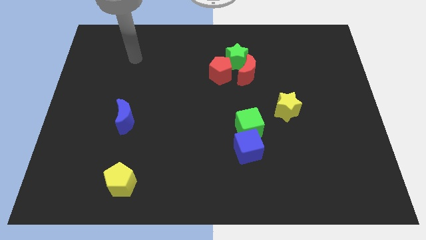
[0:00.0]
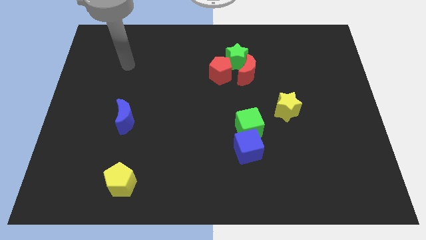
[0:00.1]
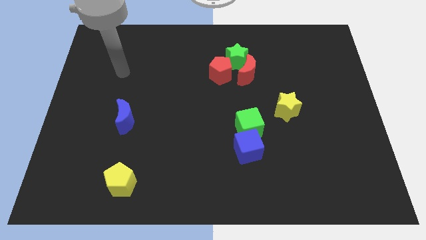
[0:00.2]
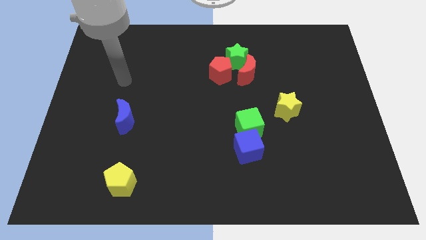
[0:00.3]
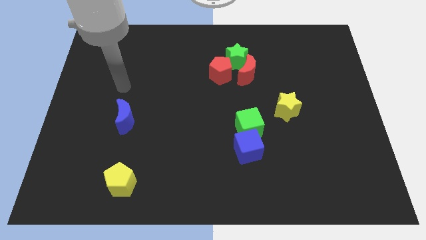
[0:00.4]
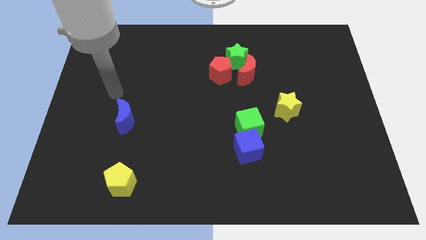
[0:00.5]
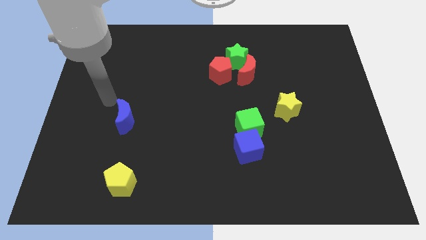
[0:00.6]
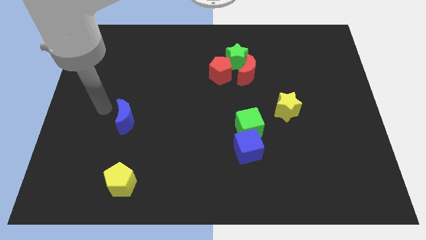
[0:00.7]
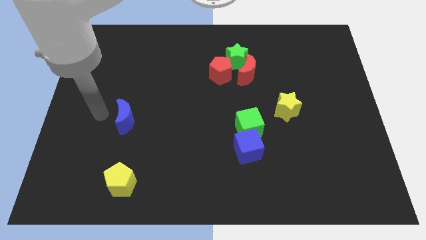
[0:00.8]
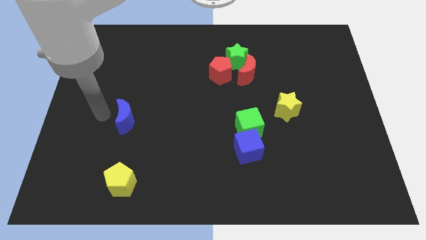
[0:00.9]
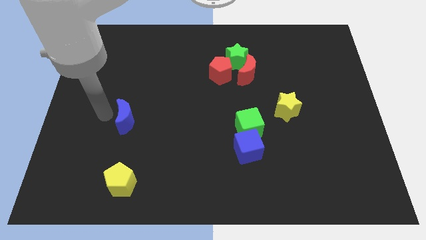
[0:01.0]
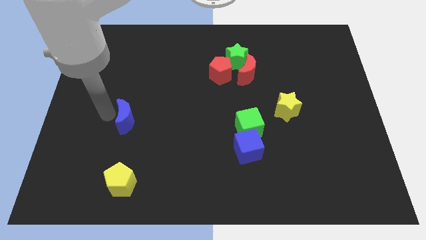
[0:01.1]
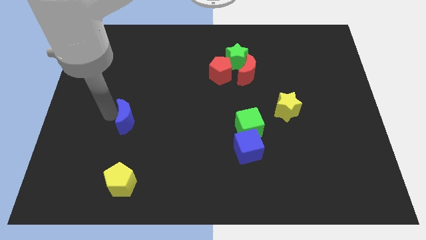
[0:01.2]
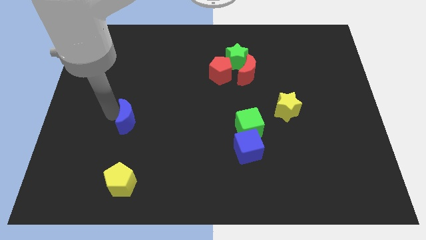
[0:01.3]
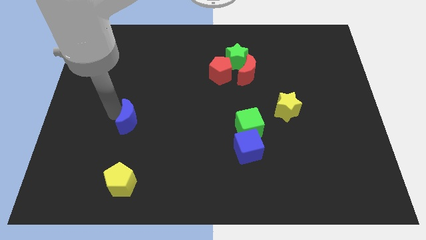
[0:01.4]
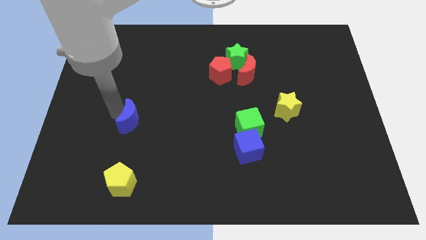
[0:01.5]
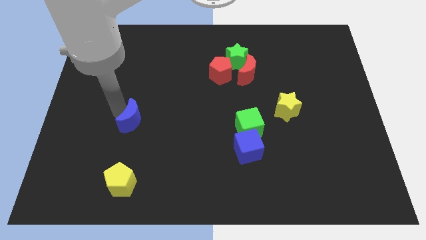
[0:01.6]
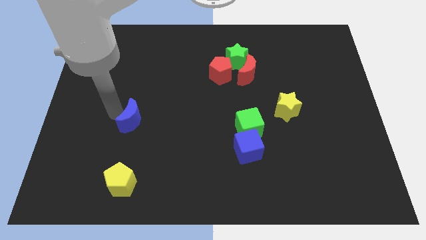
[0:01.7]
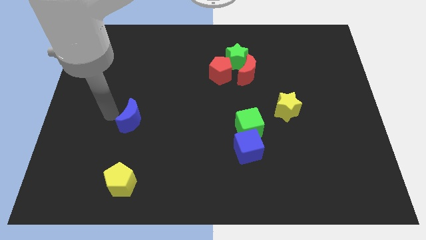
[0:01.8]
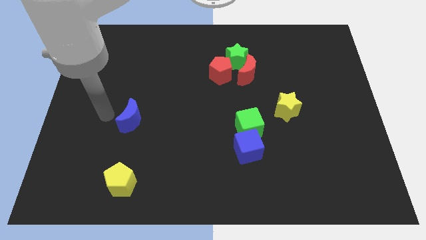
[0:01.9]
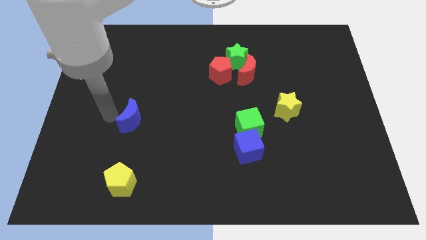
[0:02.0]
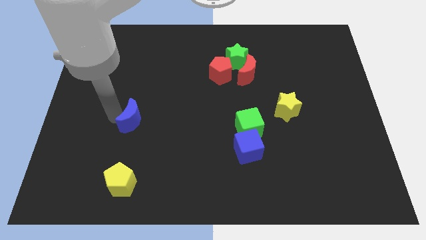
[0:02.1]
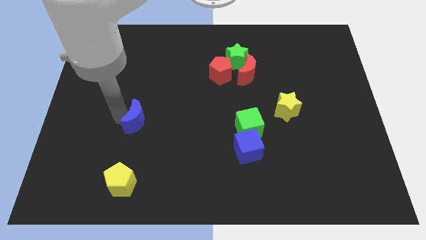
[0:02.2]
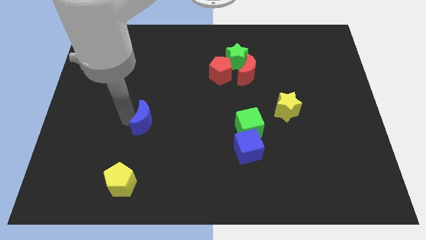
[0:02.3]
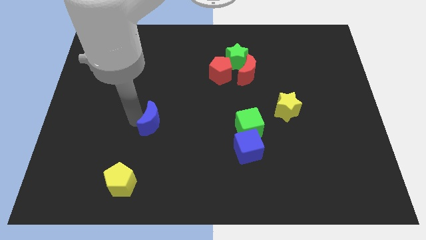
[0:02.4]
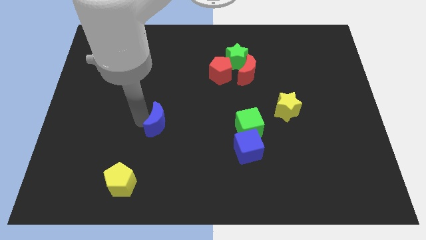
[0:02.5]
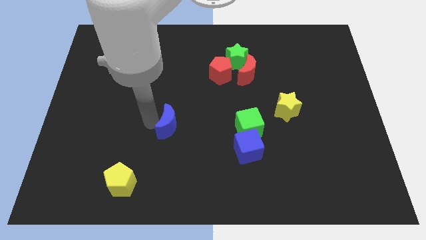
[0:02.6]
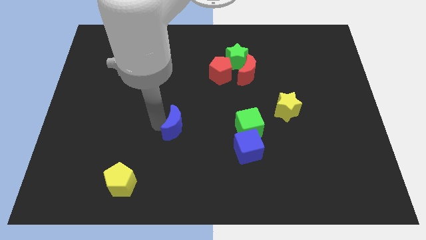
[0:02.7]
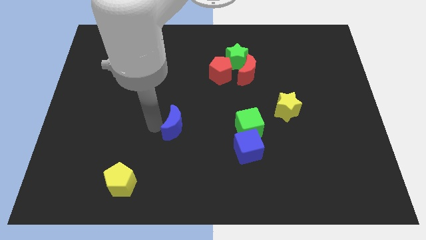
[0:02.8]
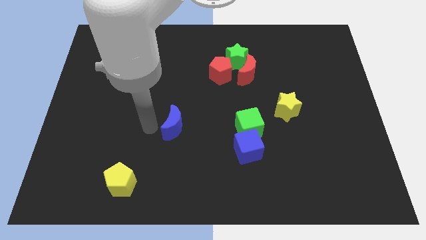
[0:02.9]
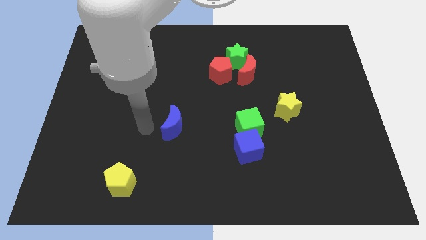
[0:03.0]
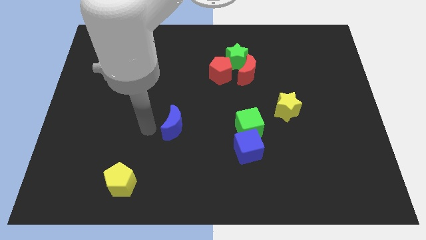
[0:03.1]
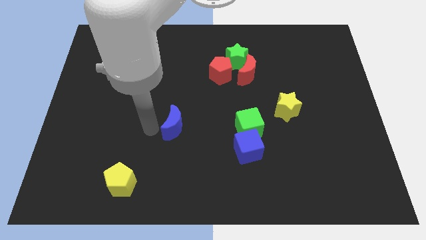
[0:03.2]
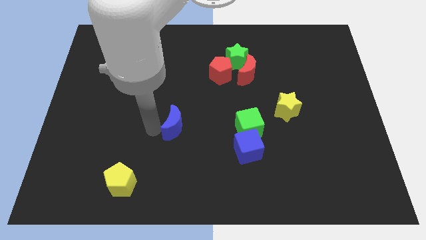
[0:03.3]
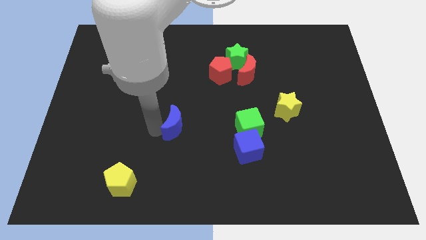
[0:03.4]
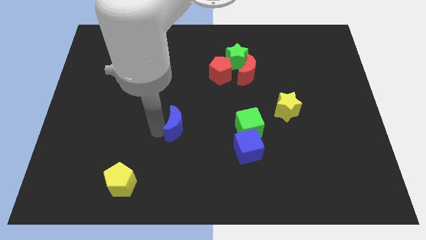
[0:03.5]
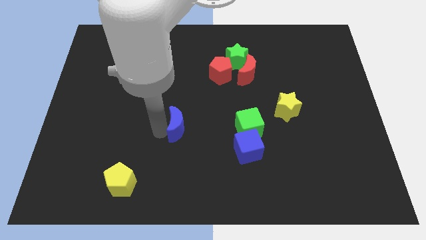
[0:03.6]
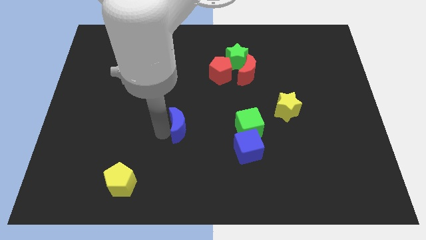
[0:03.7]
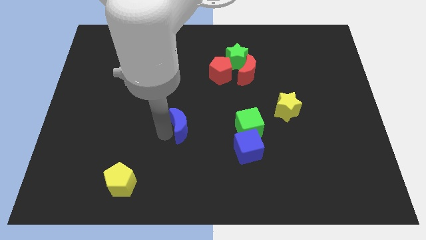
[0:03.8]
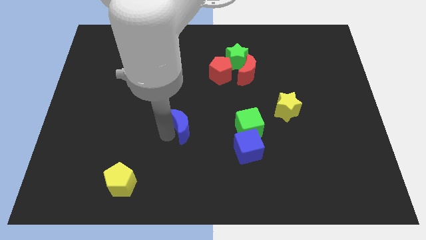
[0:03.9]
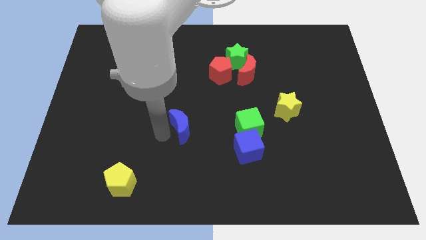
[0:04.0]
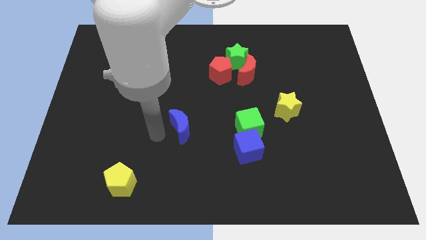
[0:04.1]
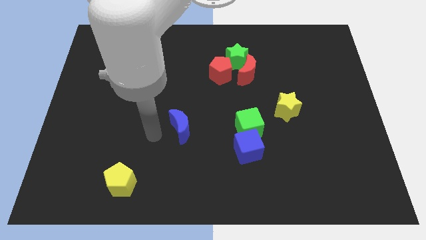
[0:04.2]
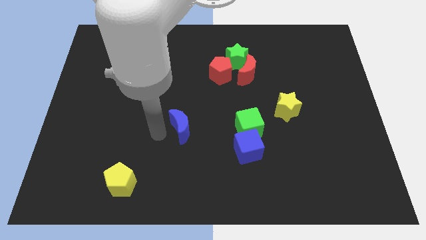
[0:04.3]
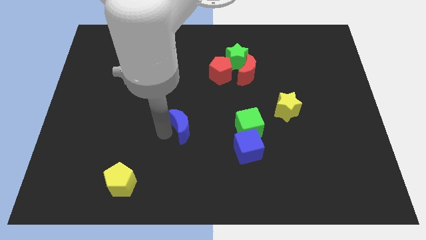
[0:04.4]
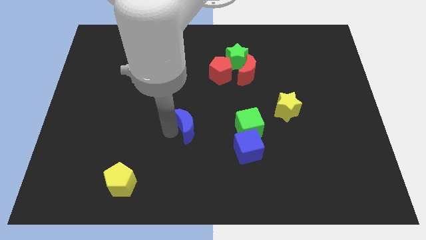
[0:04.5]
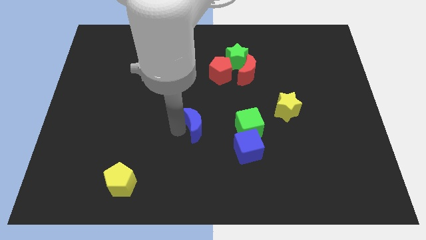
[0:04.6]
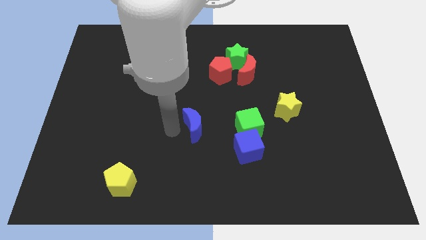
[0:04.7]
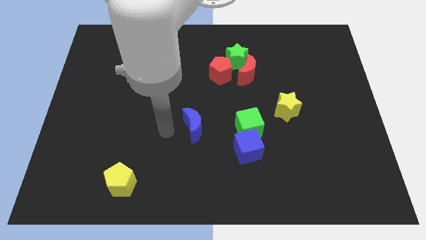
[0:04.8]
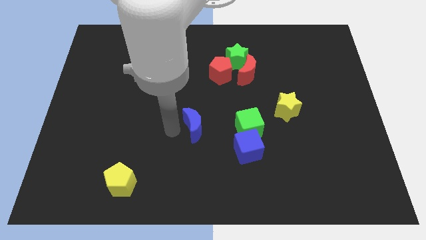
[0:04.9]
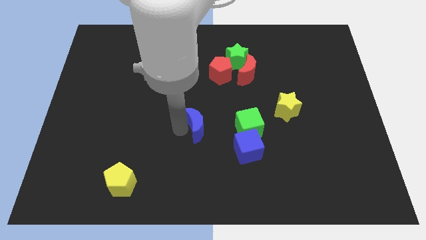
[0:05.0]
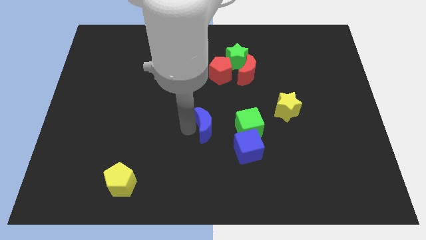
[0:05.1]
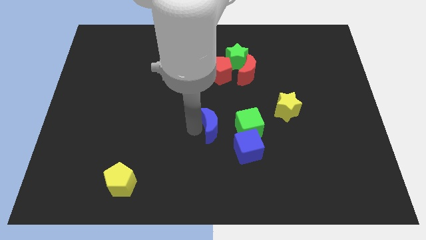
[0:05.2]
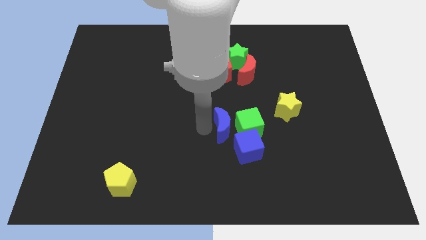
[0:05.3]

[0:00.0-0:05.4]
slide the blue moon close to the green cube

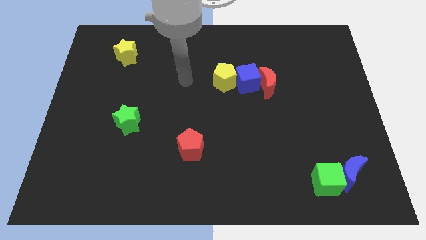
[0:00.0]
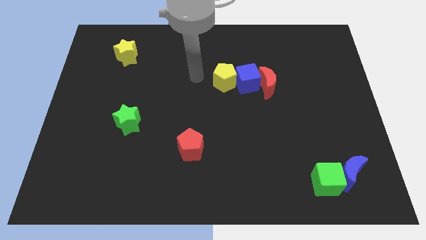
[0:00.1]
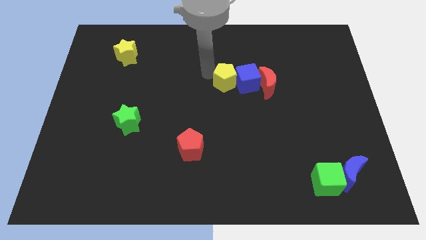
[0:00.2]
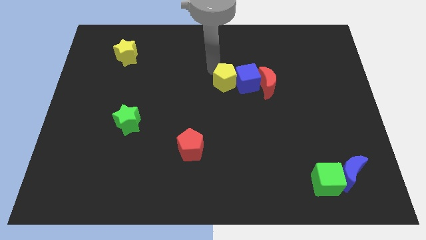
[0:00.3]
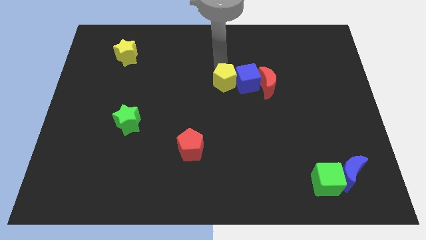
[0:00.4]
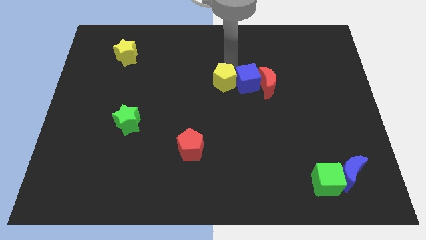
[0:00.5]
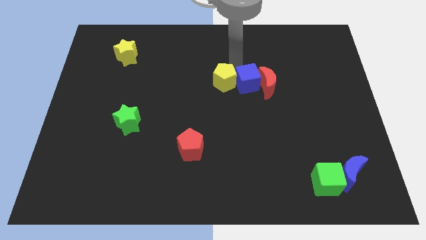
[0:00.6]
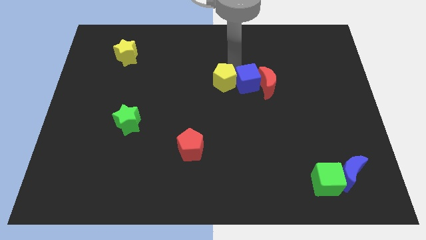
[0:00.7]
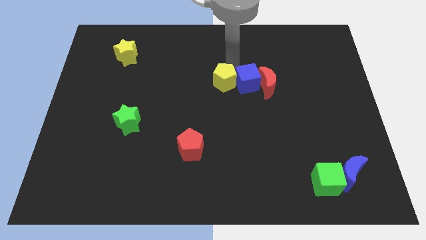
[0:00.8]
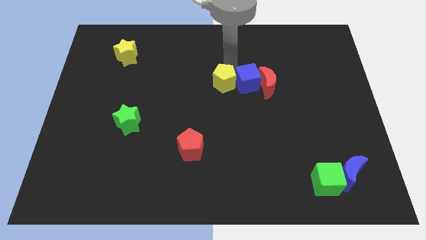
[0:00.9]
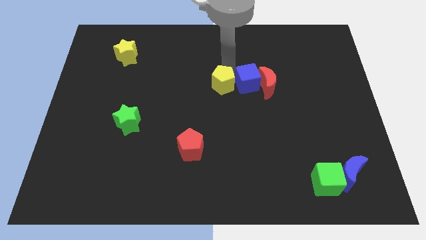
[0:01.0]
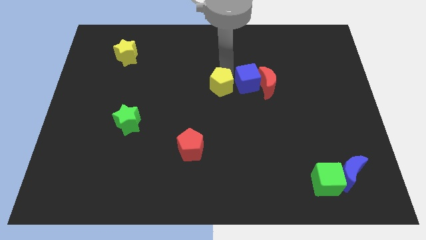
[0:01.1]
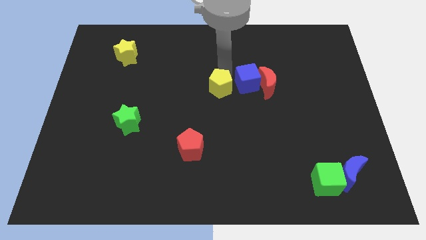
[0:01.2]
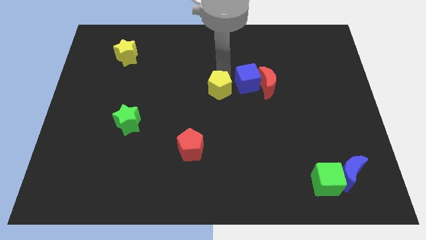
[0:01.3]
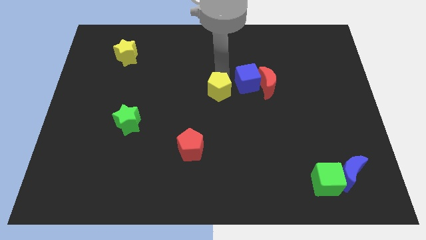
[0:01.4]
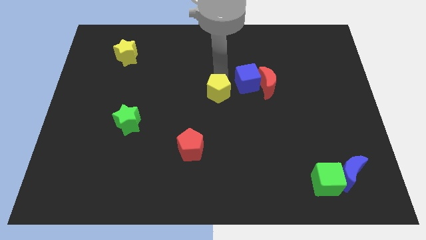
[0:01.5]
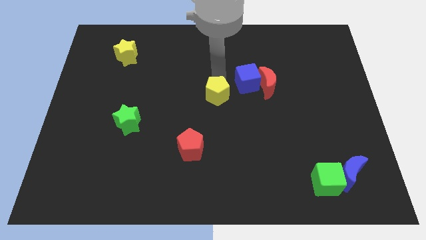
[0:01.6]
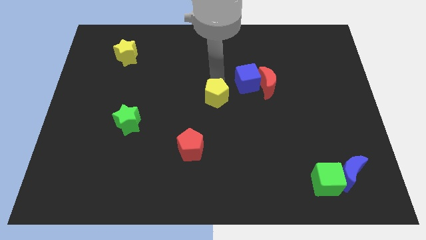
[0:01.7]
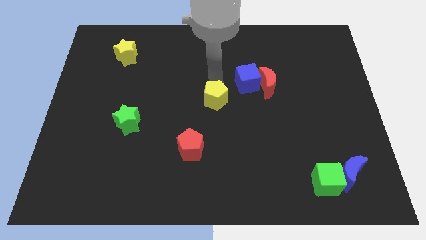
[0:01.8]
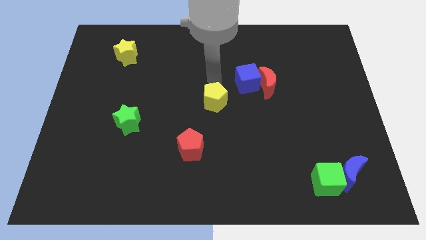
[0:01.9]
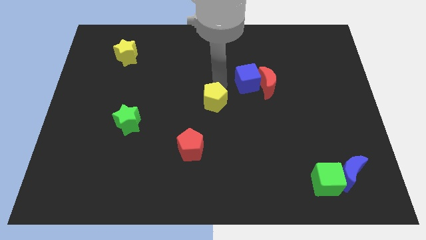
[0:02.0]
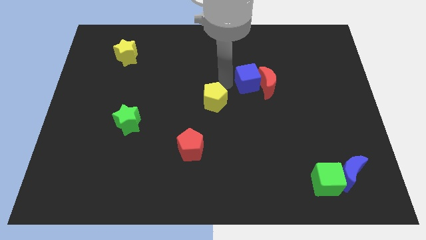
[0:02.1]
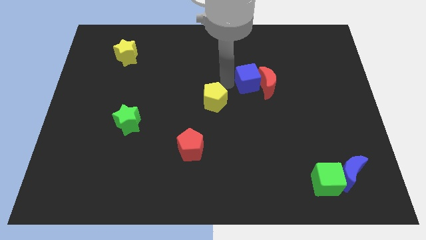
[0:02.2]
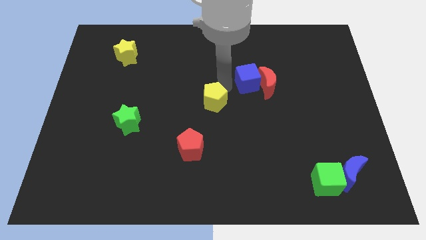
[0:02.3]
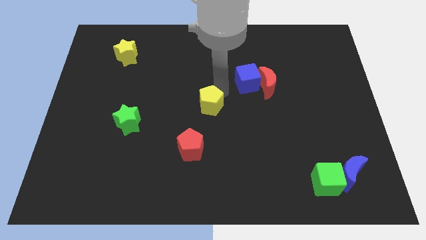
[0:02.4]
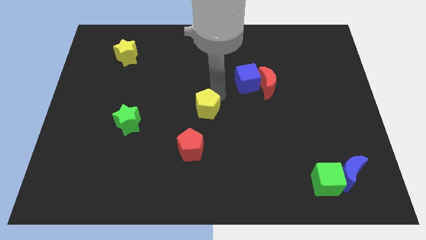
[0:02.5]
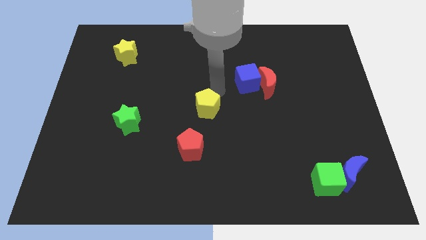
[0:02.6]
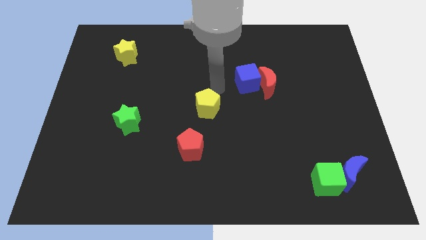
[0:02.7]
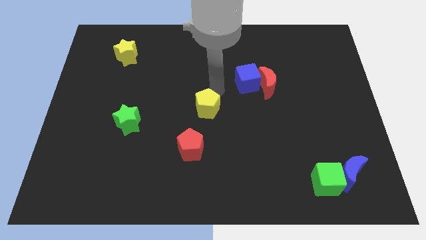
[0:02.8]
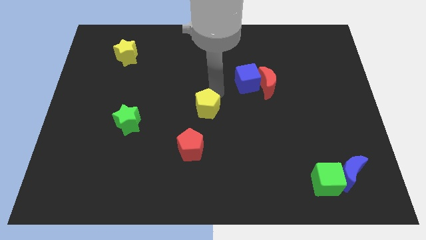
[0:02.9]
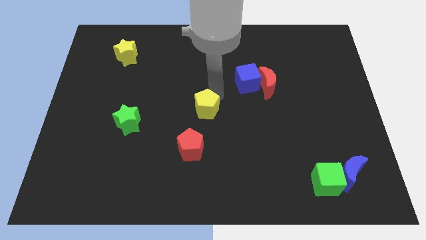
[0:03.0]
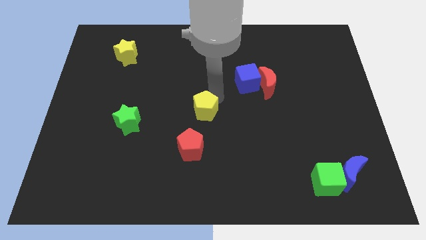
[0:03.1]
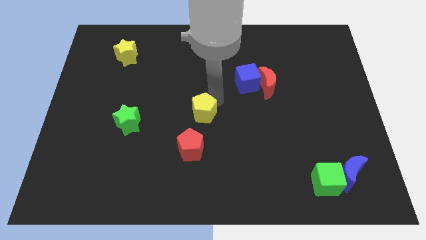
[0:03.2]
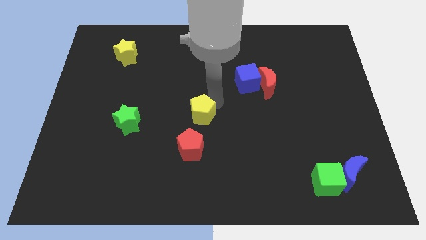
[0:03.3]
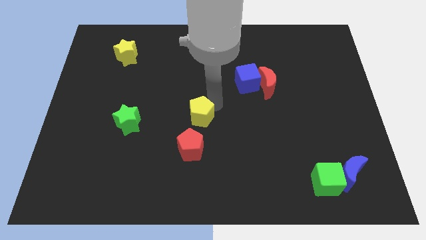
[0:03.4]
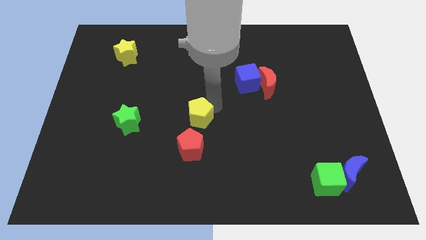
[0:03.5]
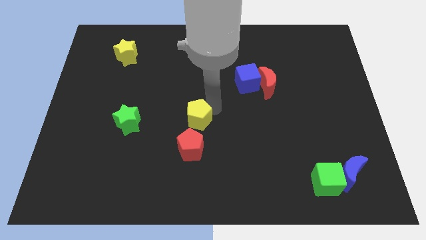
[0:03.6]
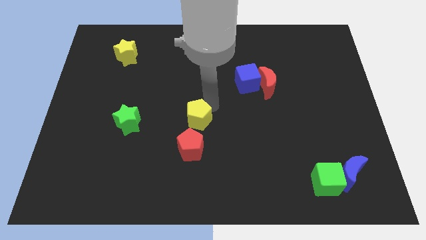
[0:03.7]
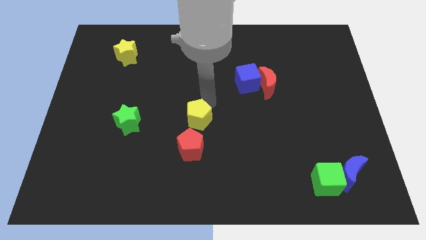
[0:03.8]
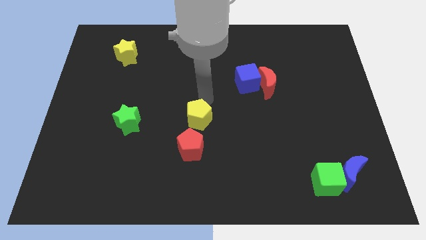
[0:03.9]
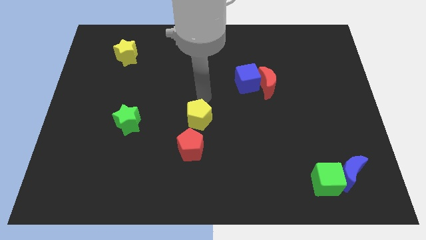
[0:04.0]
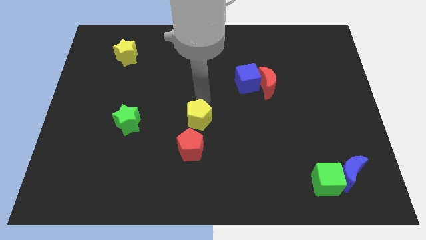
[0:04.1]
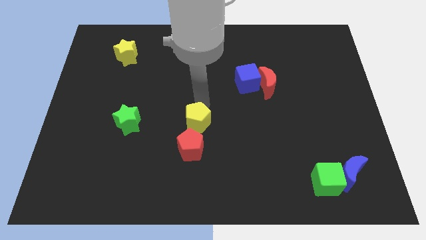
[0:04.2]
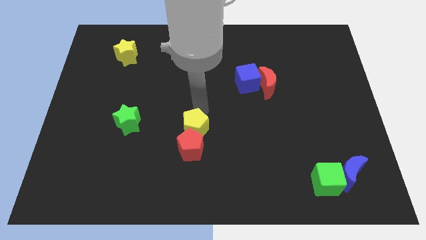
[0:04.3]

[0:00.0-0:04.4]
put the yellow pentagon to the red pentagon
